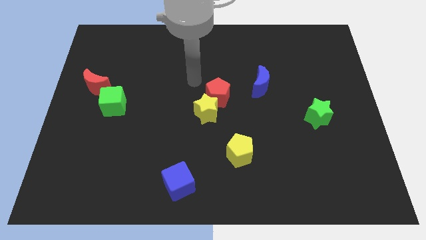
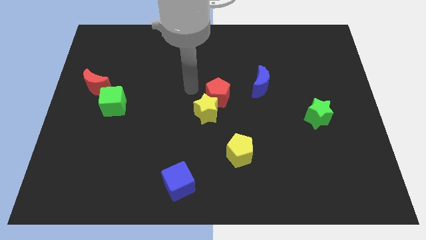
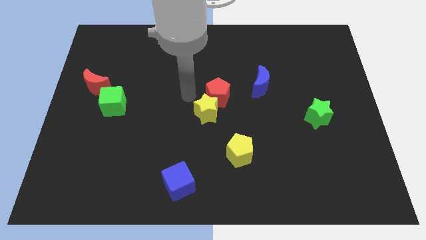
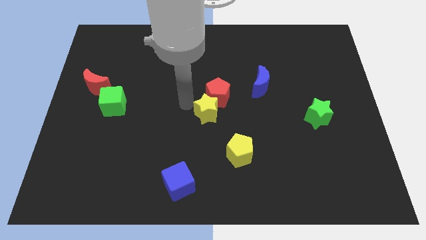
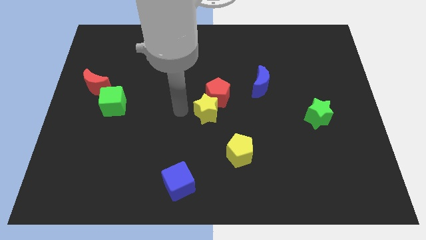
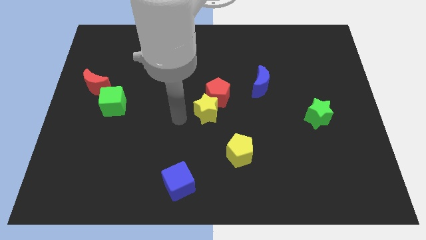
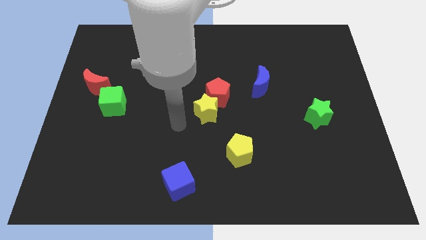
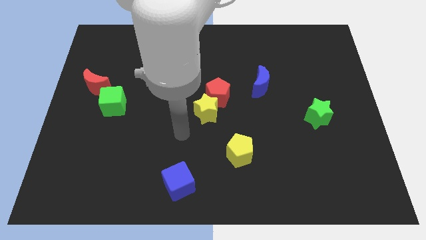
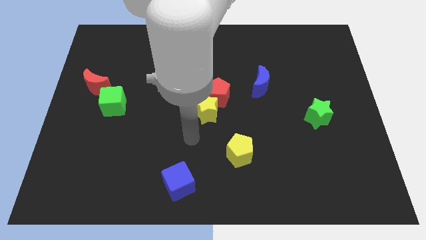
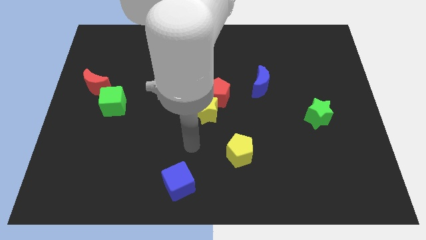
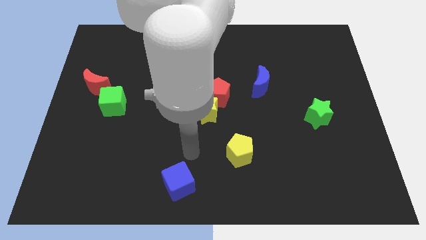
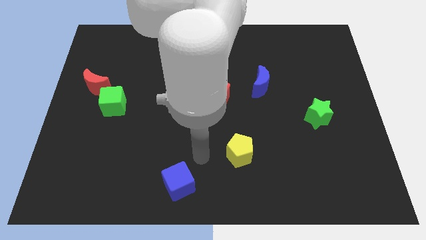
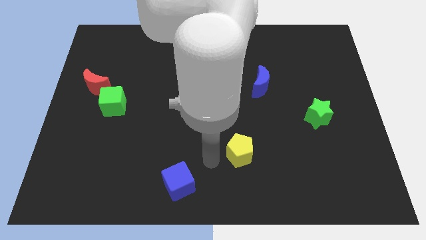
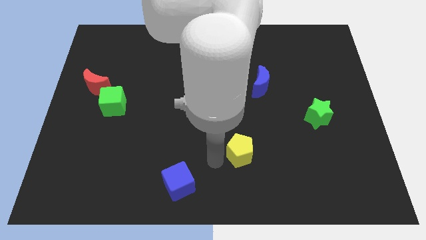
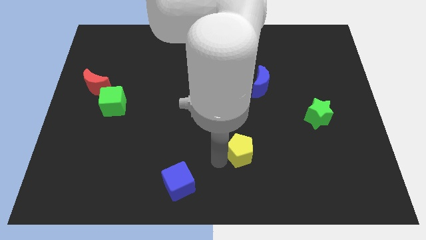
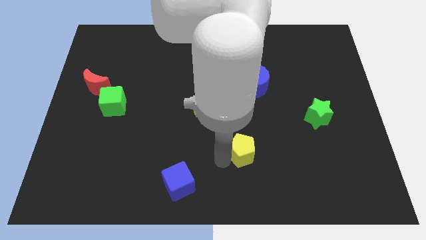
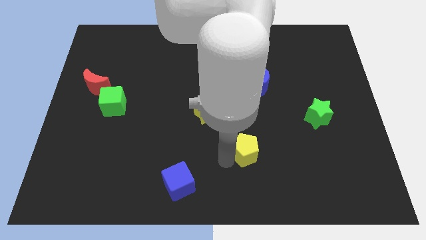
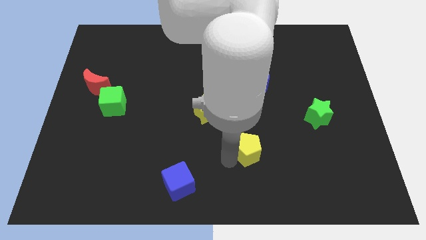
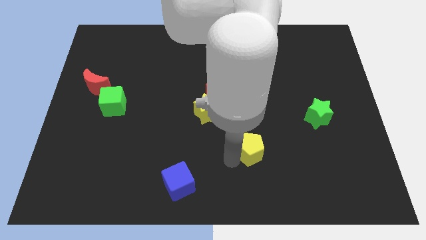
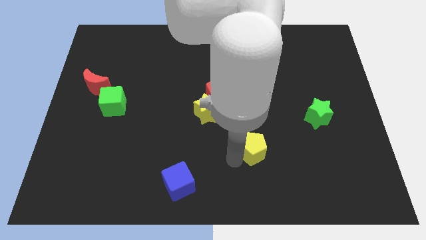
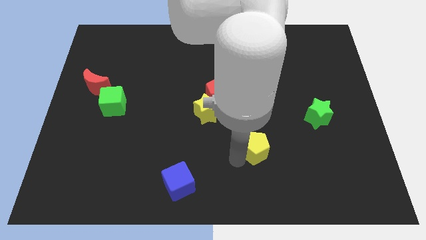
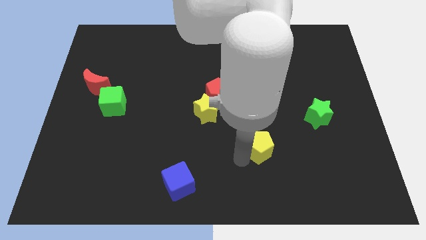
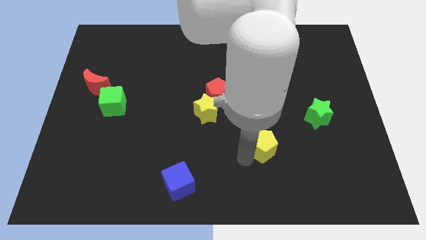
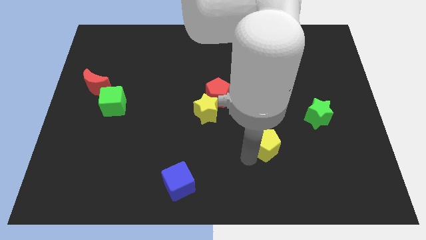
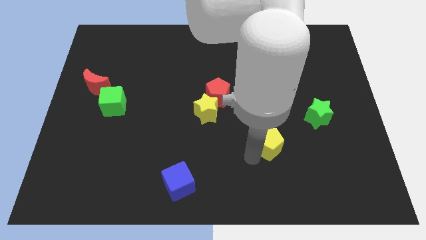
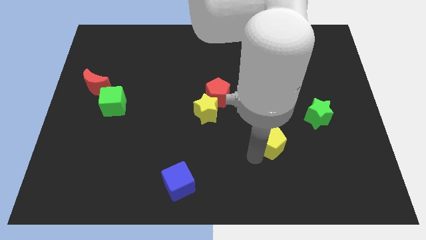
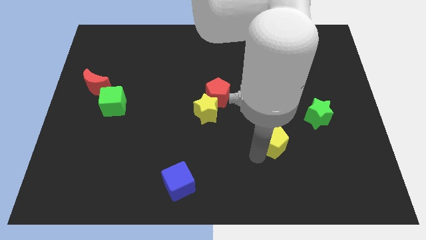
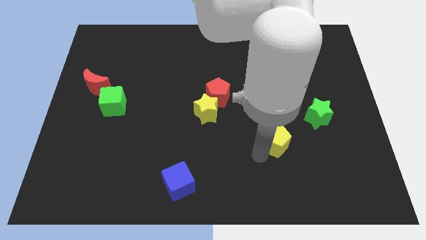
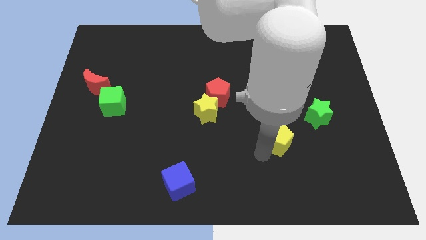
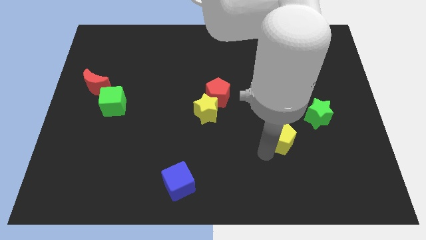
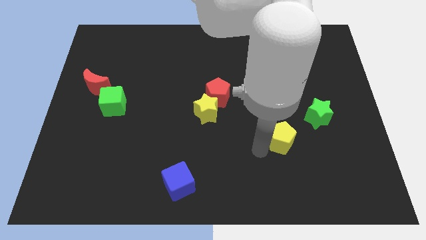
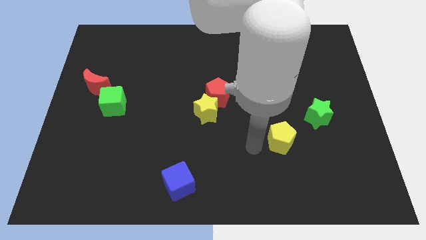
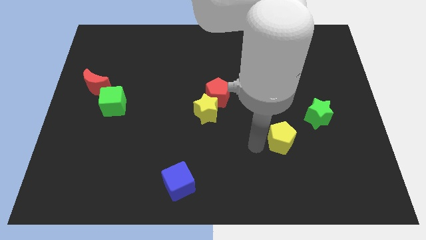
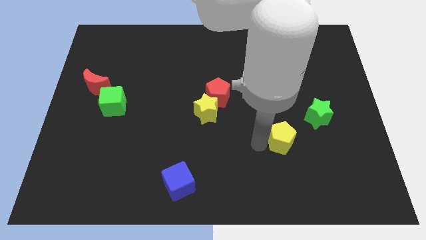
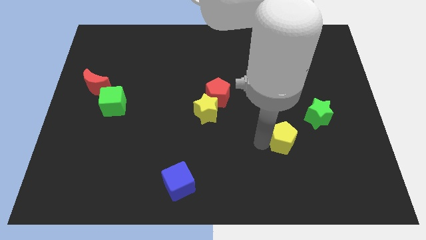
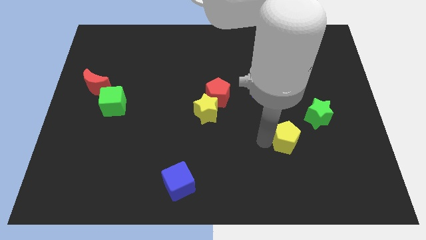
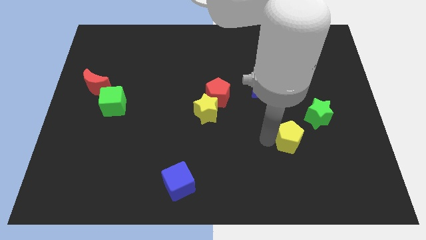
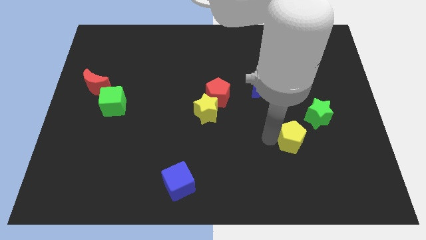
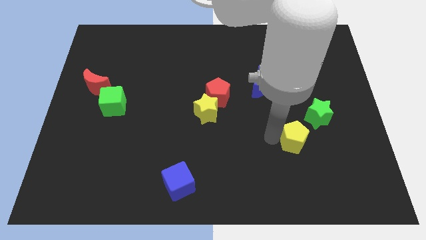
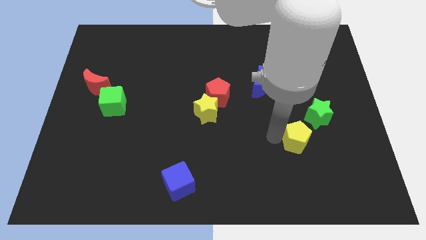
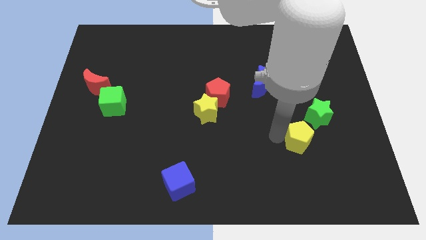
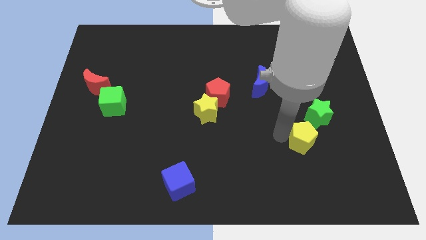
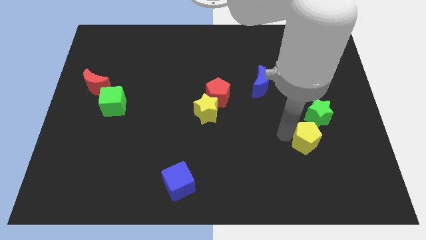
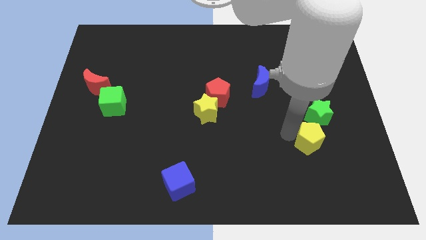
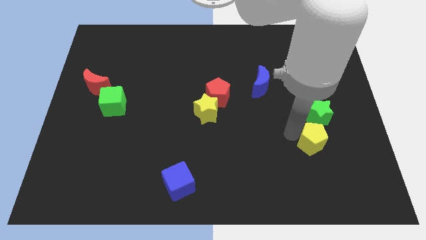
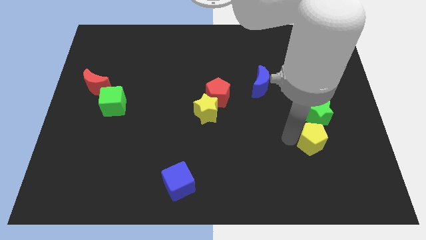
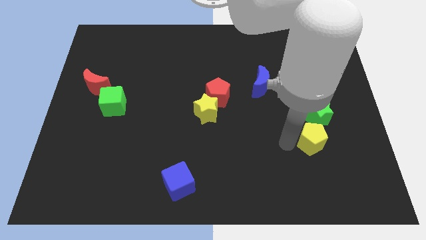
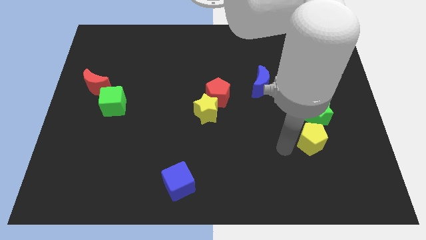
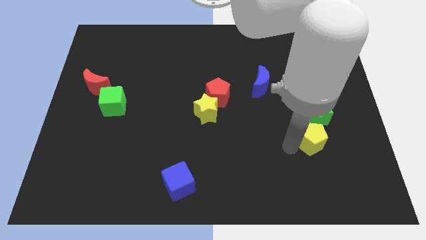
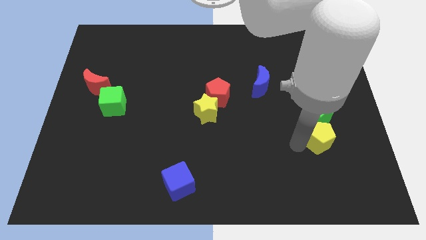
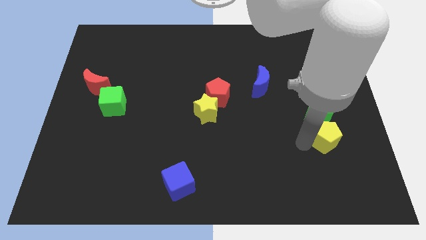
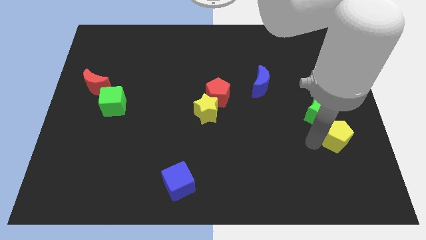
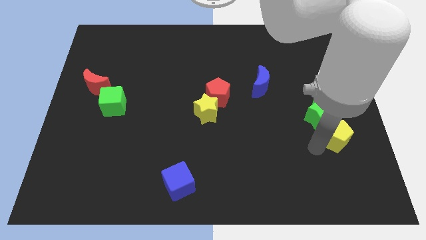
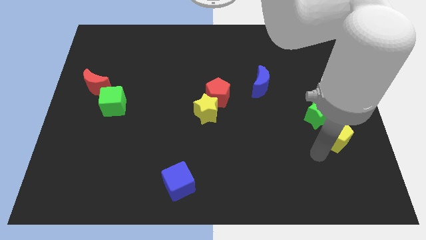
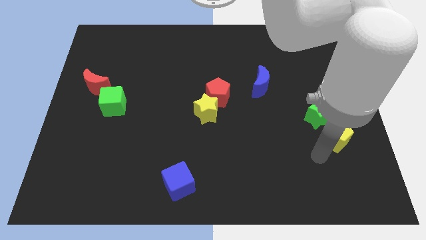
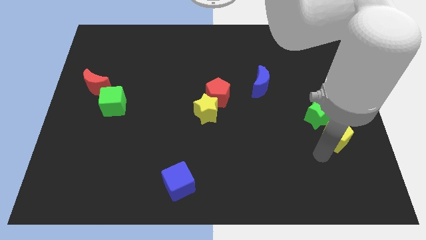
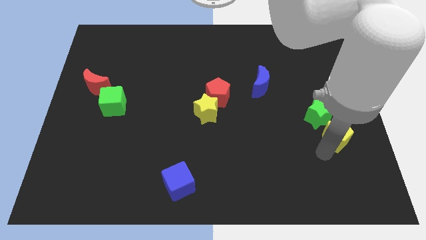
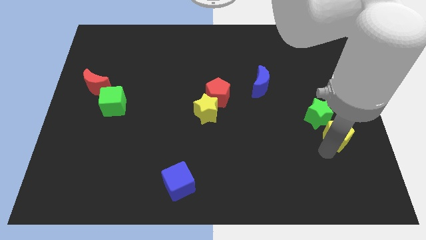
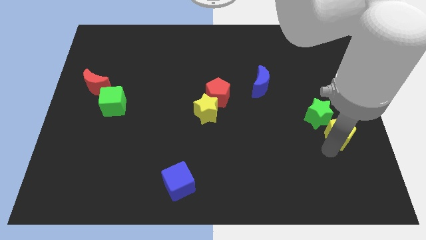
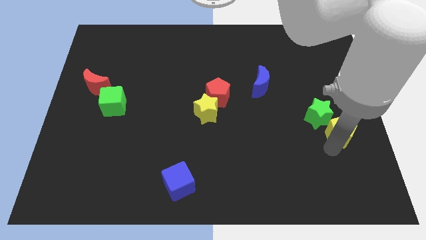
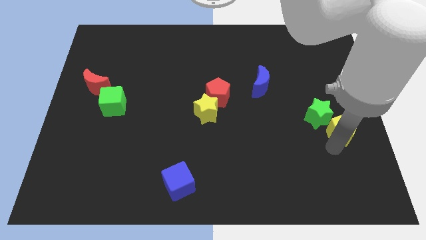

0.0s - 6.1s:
slide the yellow pentagon to the right side of the board

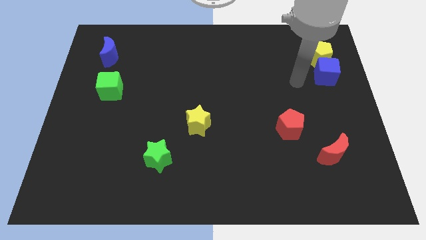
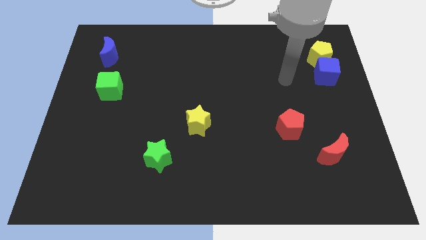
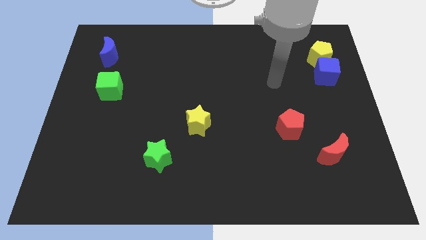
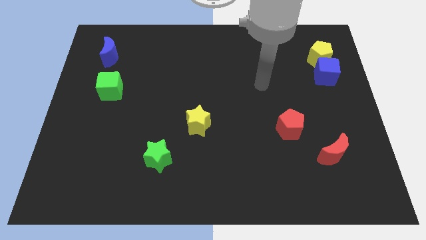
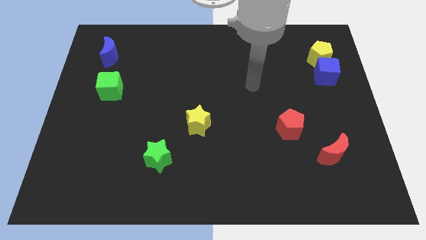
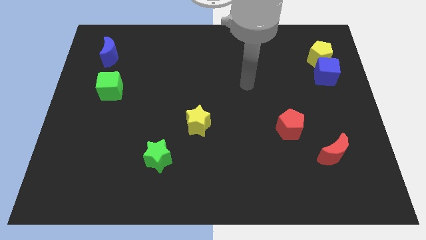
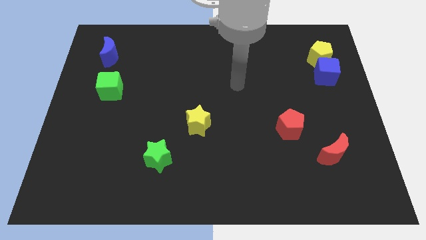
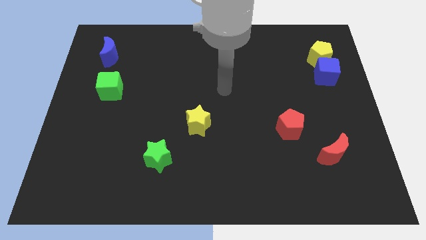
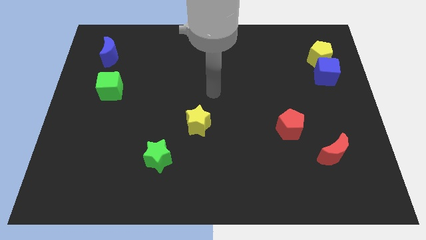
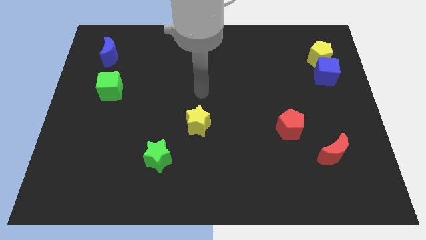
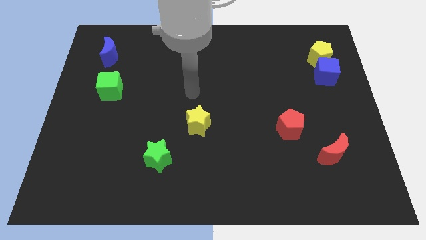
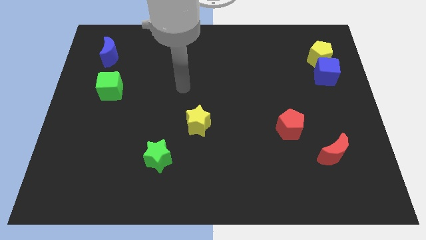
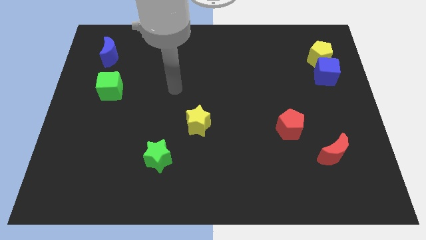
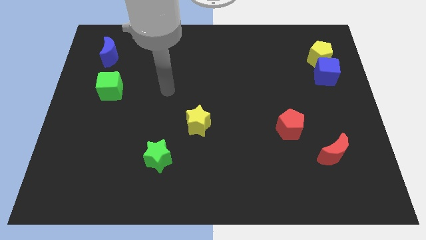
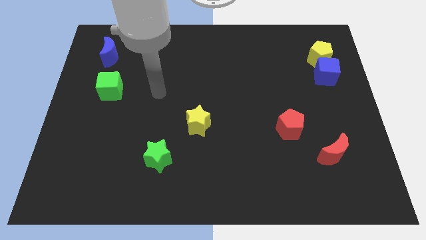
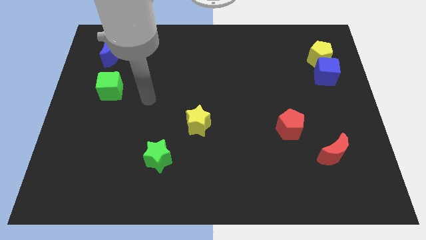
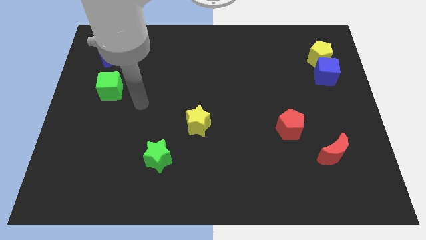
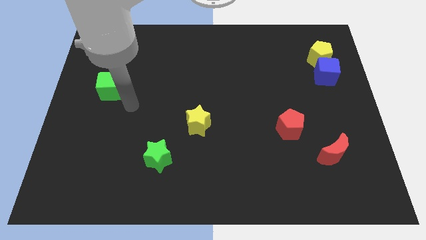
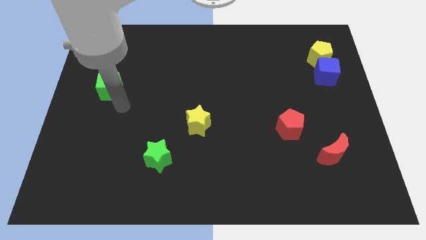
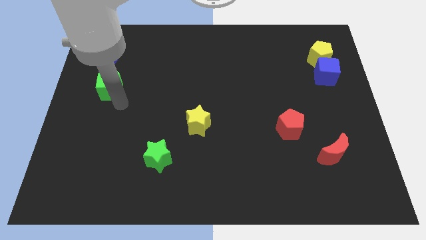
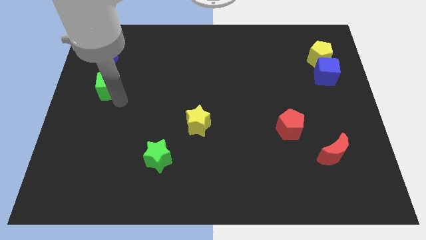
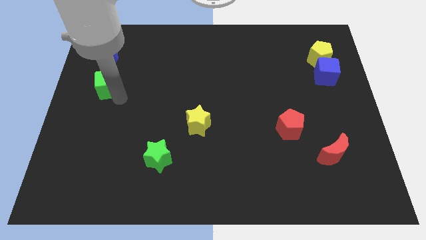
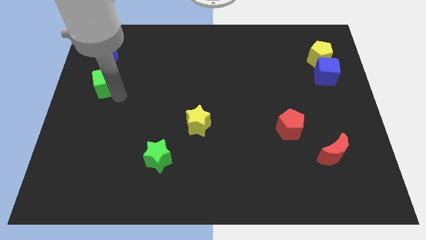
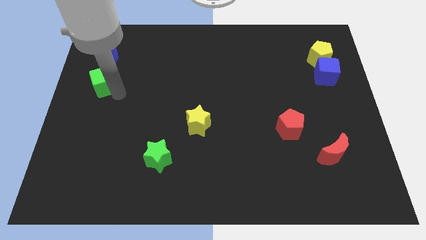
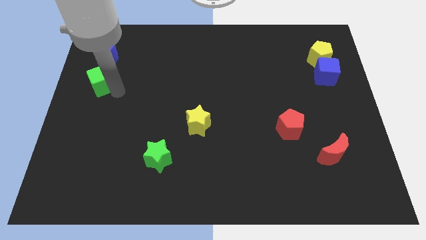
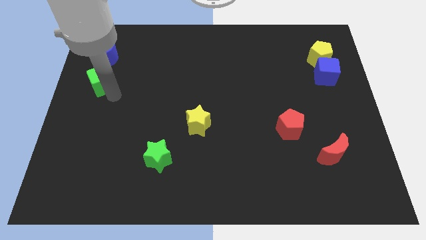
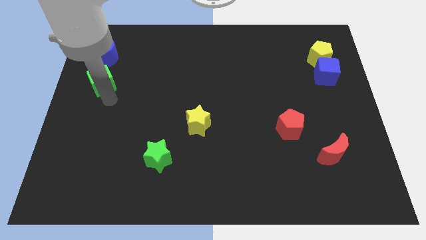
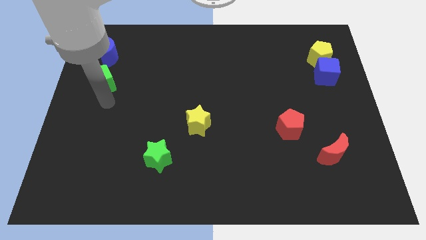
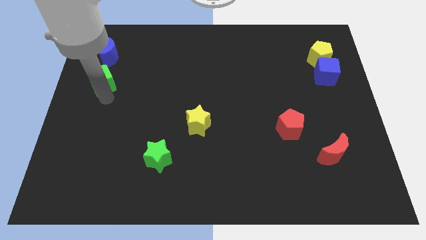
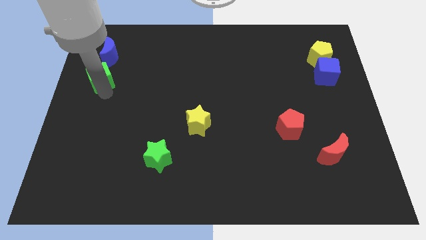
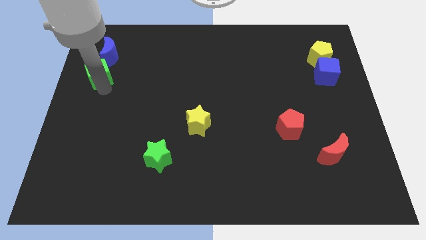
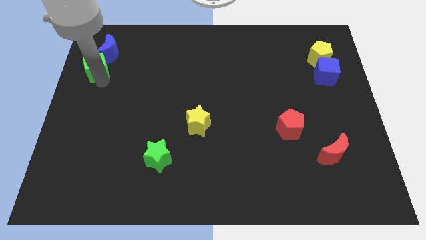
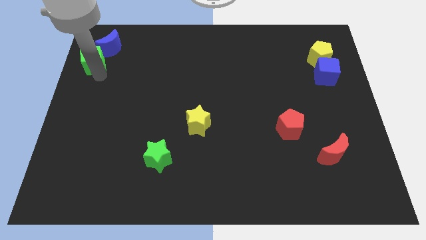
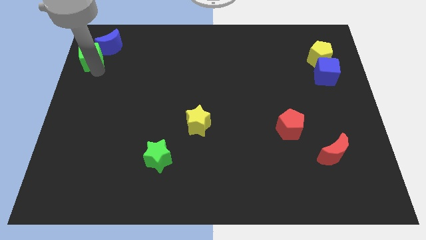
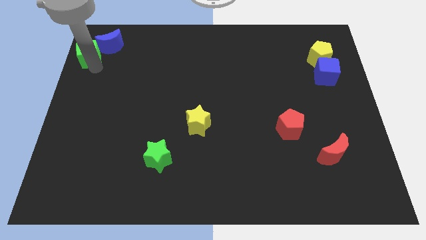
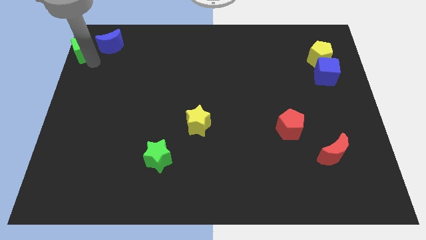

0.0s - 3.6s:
move the green cube to the top left corner
